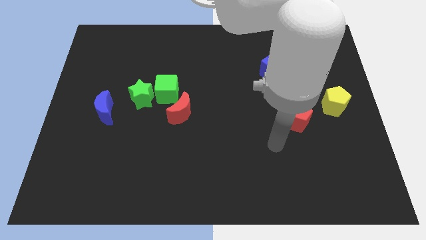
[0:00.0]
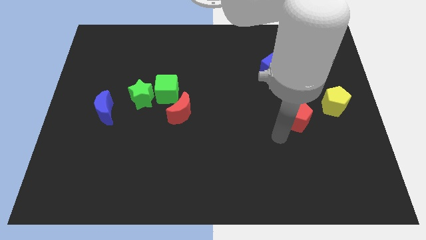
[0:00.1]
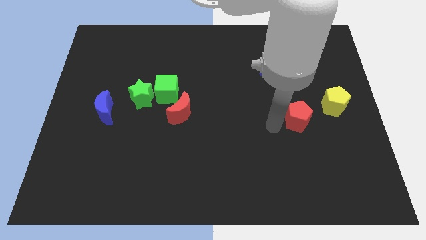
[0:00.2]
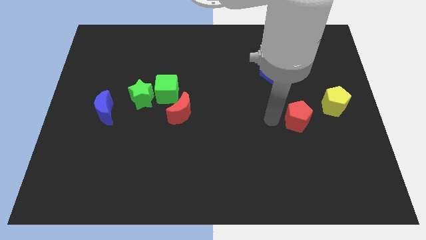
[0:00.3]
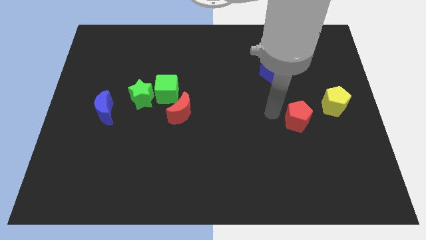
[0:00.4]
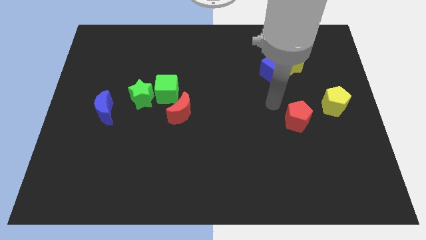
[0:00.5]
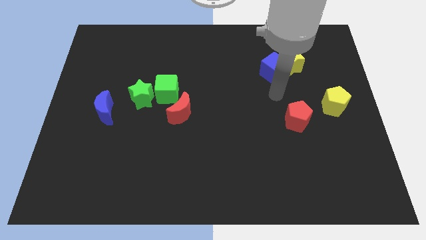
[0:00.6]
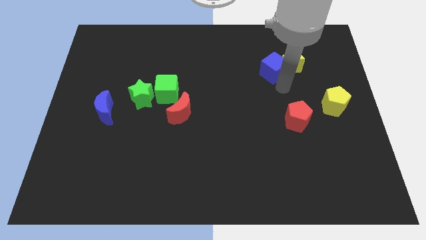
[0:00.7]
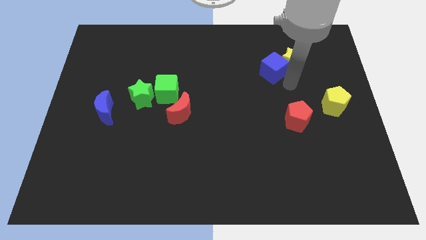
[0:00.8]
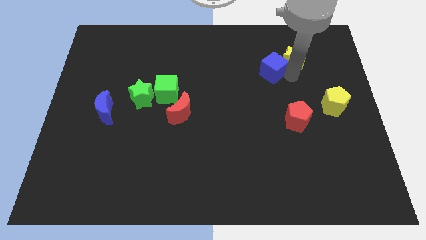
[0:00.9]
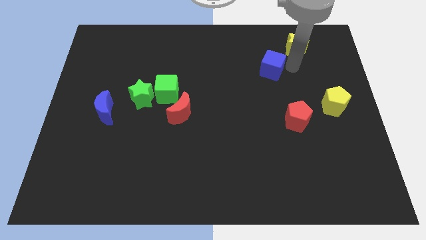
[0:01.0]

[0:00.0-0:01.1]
move the blue cube away from the yellow star

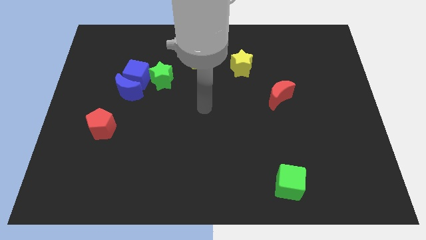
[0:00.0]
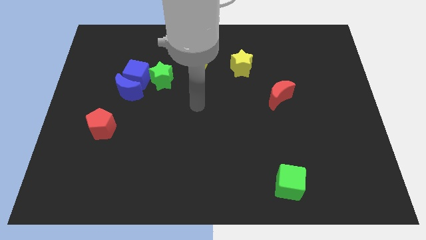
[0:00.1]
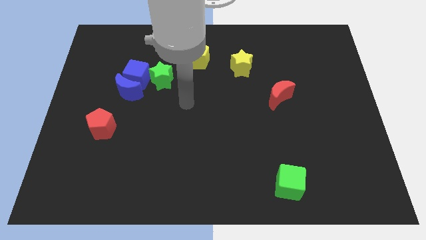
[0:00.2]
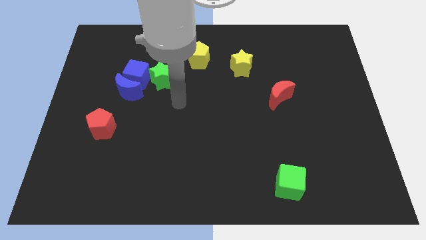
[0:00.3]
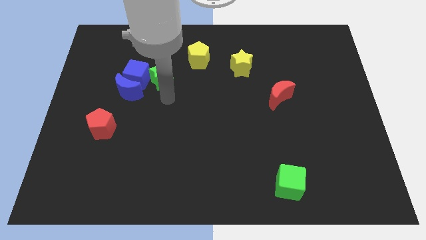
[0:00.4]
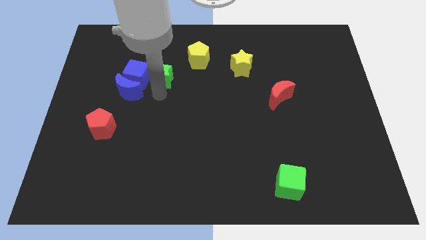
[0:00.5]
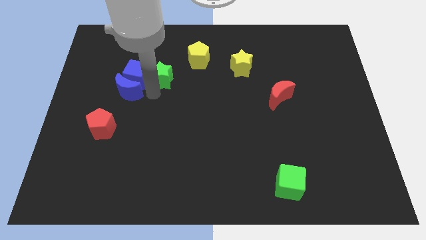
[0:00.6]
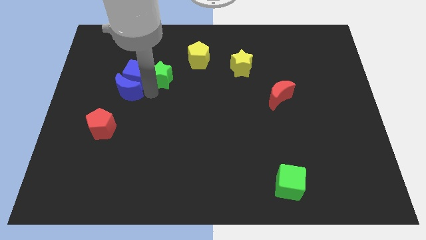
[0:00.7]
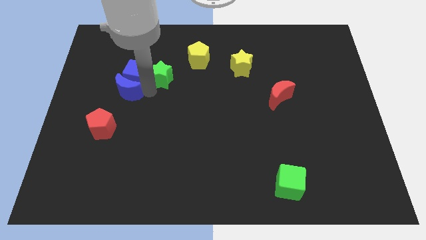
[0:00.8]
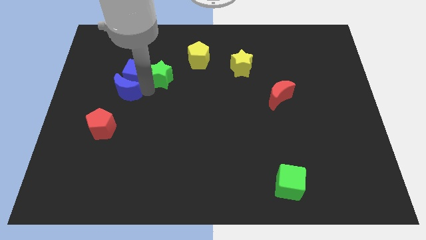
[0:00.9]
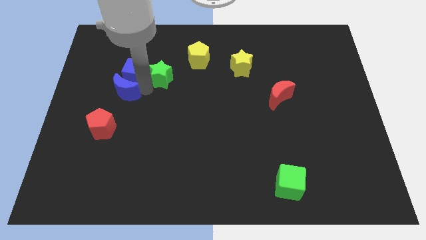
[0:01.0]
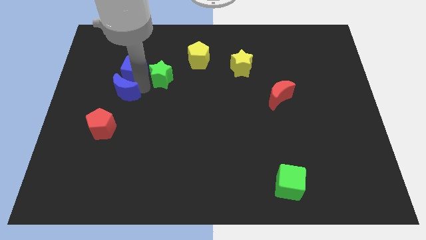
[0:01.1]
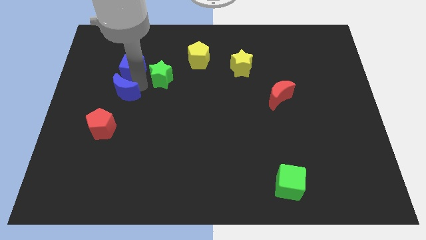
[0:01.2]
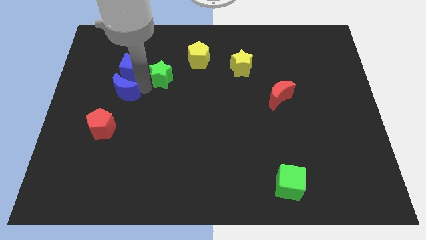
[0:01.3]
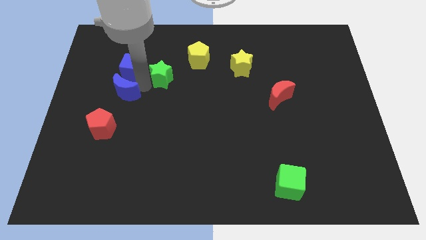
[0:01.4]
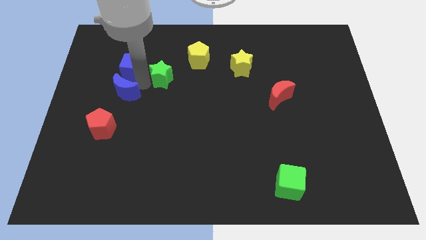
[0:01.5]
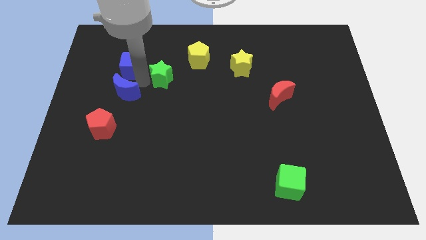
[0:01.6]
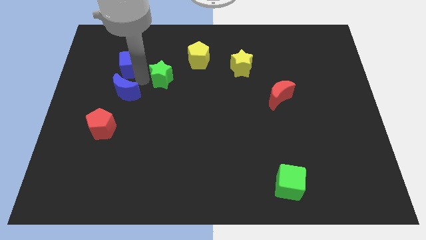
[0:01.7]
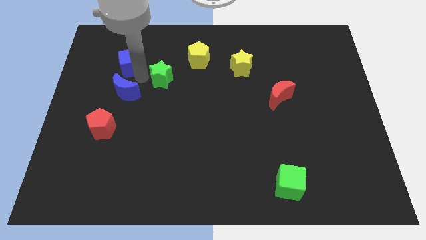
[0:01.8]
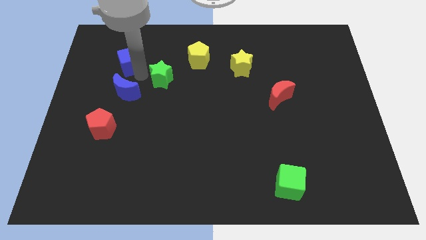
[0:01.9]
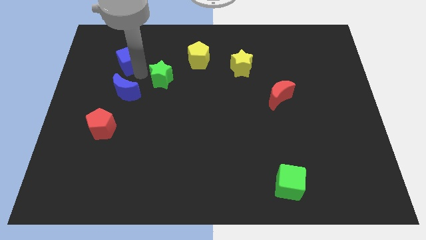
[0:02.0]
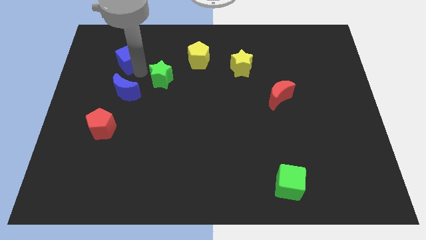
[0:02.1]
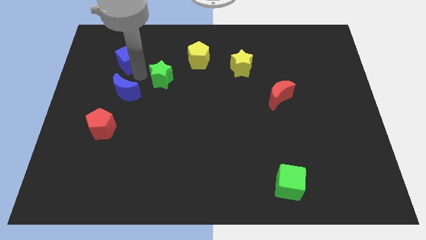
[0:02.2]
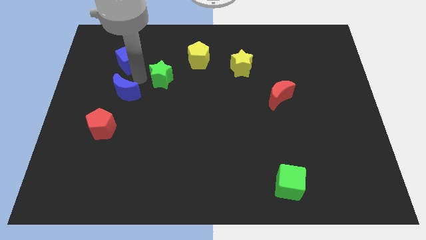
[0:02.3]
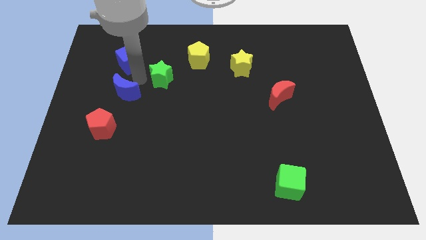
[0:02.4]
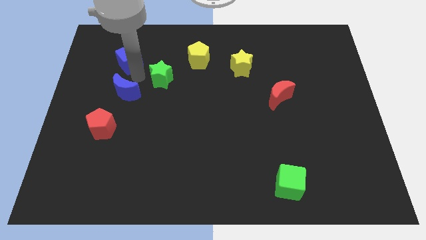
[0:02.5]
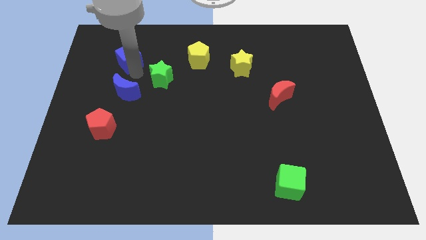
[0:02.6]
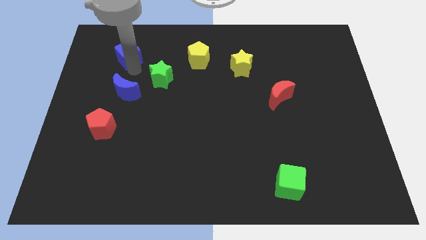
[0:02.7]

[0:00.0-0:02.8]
move the blue cube away from the blue moon and green star

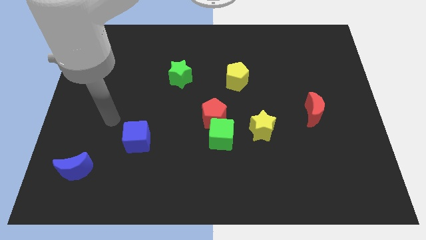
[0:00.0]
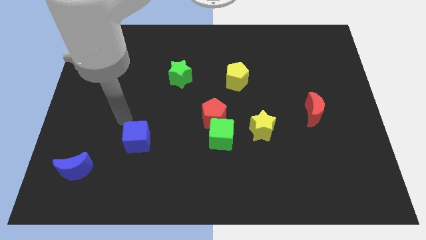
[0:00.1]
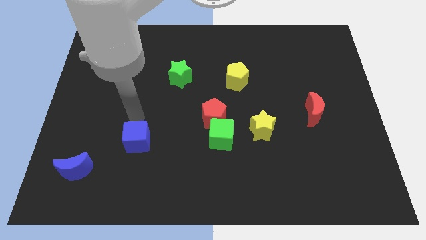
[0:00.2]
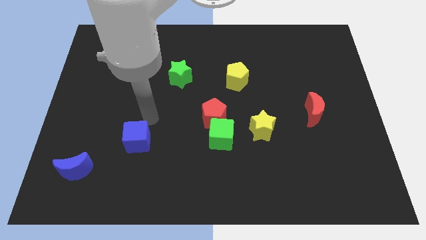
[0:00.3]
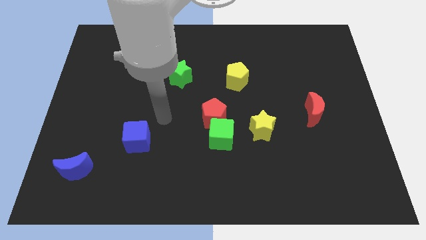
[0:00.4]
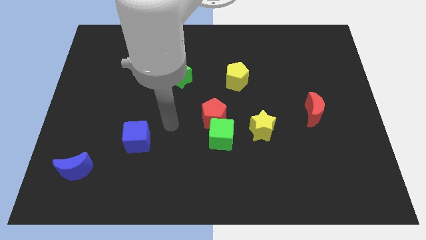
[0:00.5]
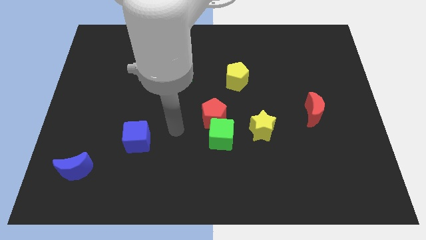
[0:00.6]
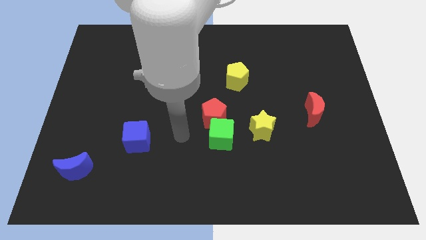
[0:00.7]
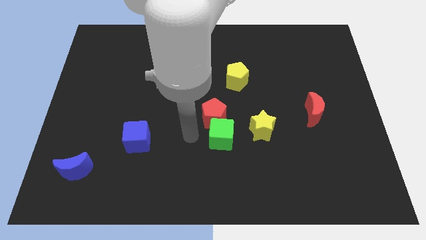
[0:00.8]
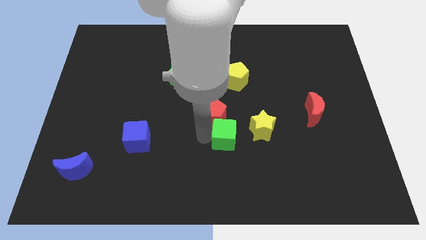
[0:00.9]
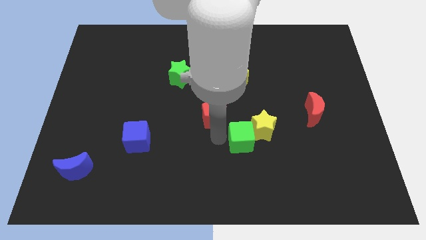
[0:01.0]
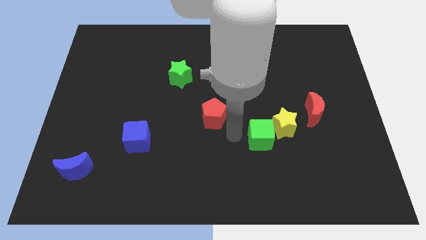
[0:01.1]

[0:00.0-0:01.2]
pull the red pentagon apart from the green cube

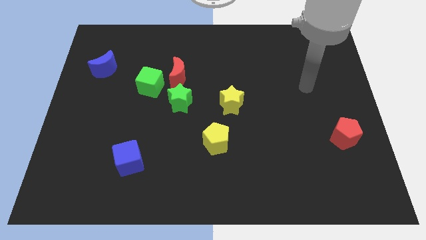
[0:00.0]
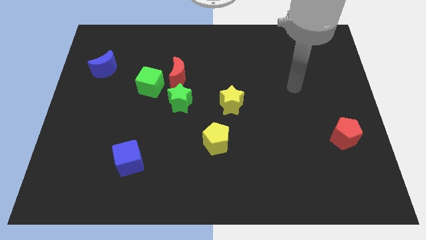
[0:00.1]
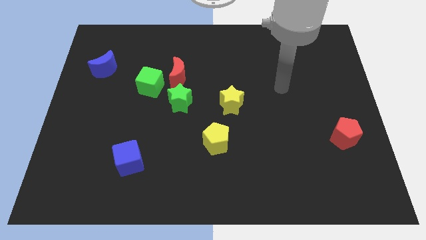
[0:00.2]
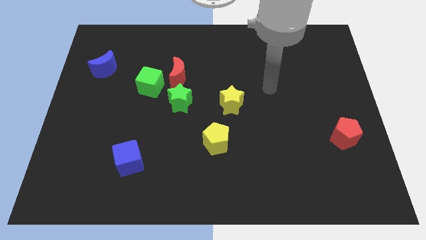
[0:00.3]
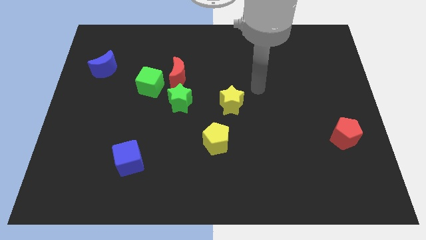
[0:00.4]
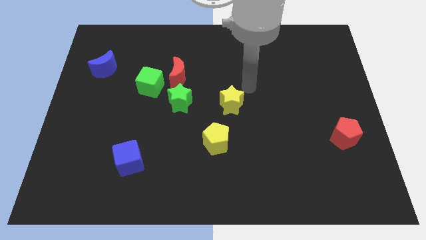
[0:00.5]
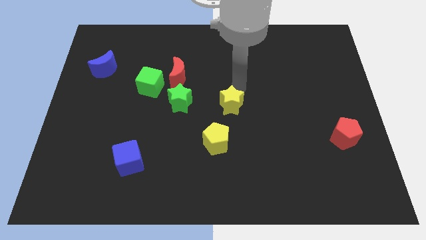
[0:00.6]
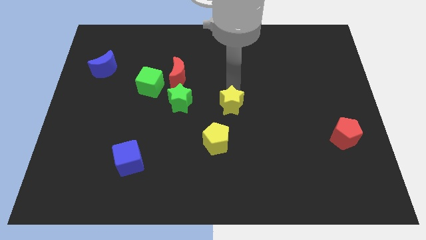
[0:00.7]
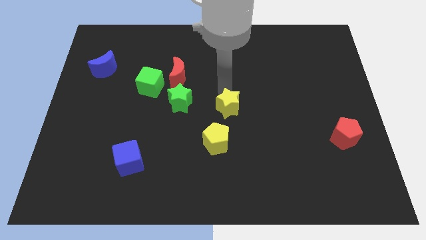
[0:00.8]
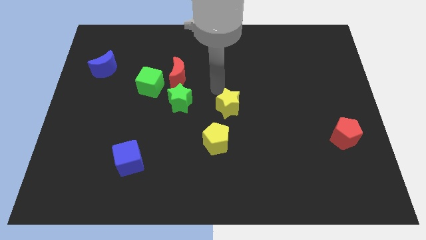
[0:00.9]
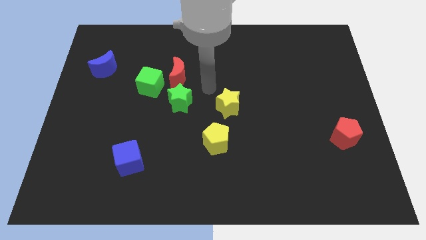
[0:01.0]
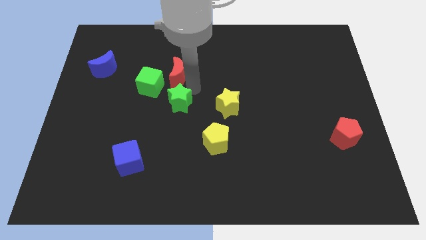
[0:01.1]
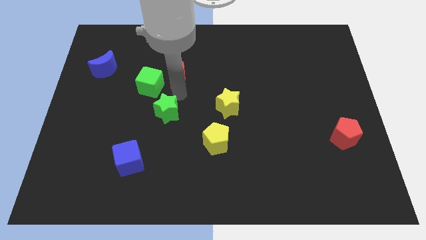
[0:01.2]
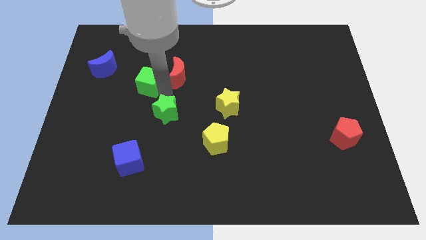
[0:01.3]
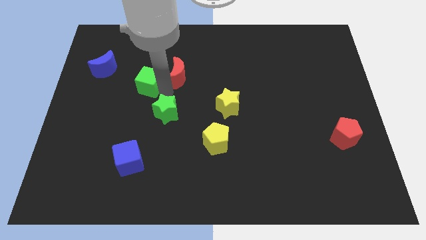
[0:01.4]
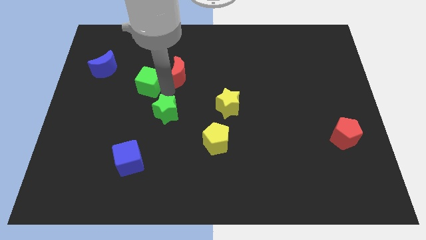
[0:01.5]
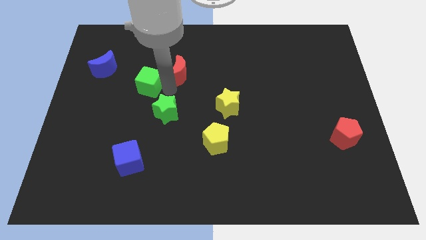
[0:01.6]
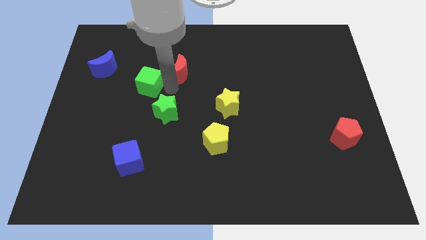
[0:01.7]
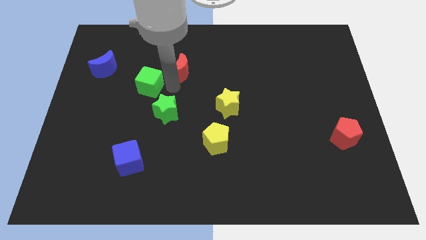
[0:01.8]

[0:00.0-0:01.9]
separate the red moon from the green cube and green star

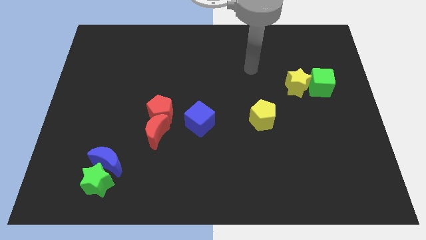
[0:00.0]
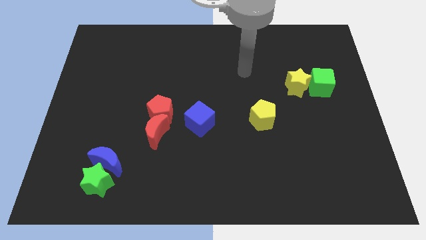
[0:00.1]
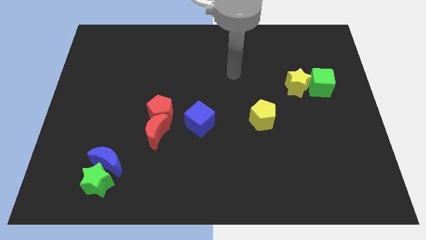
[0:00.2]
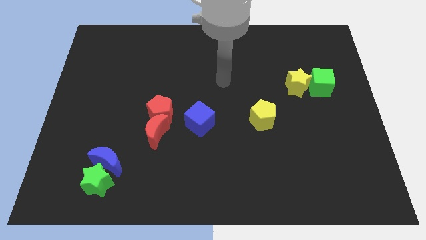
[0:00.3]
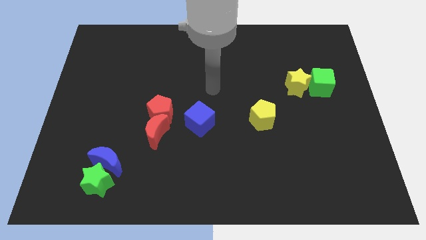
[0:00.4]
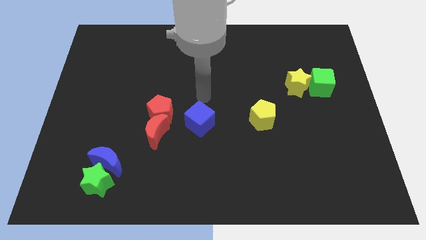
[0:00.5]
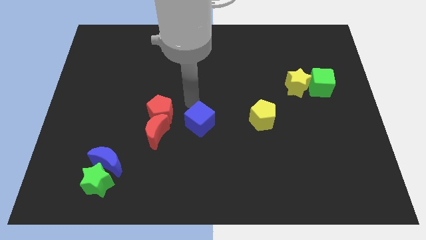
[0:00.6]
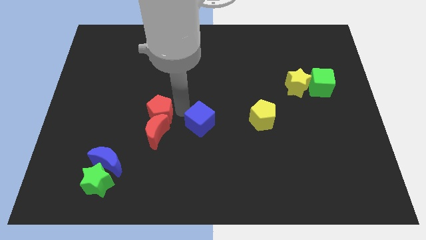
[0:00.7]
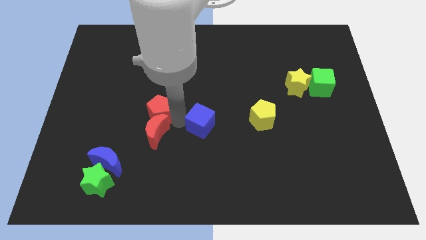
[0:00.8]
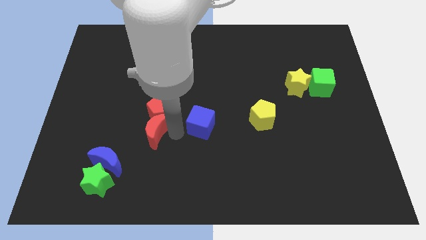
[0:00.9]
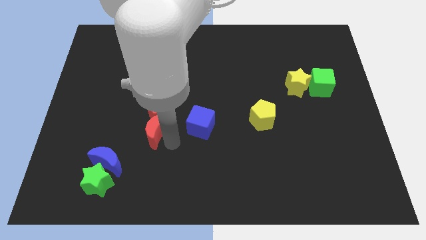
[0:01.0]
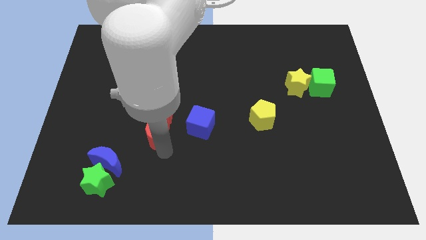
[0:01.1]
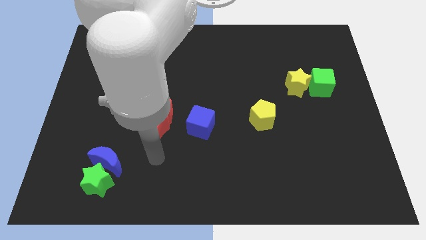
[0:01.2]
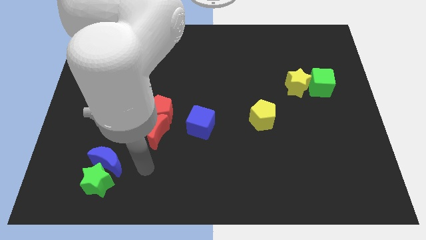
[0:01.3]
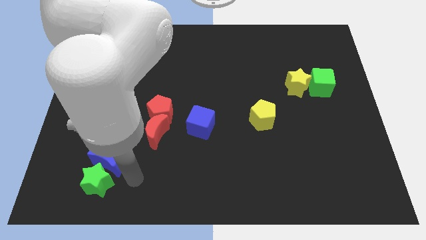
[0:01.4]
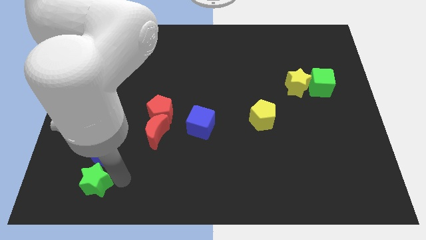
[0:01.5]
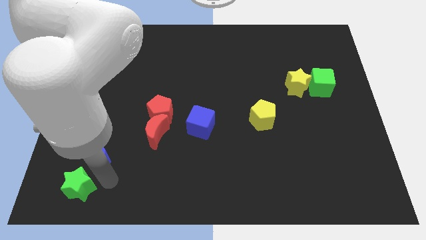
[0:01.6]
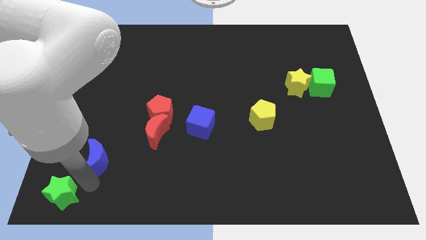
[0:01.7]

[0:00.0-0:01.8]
separate the blue moon from the green star

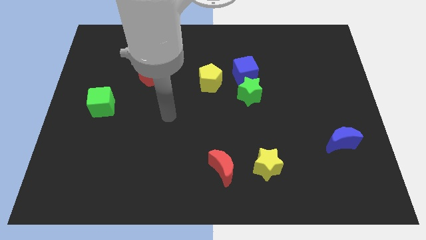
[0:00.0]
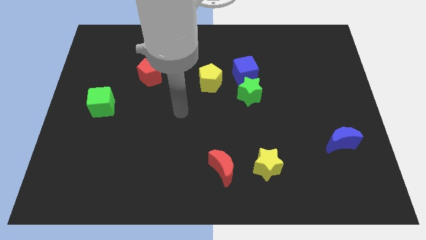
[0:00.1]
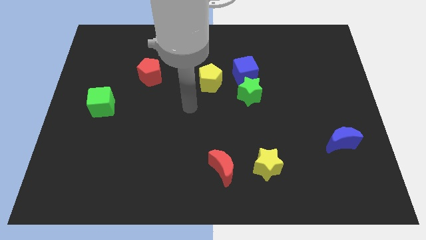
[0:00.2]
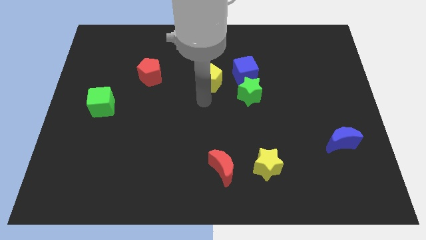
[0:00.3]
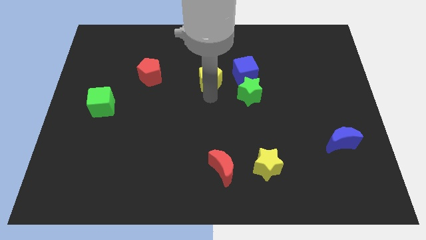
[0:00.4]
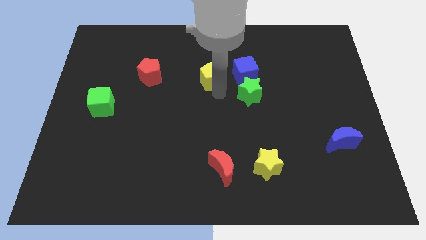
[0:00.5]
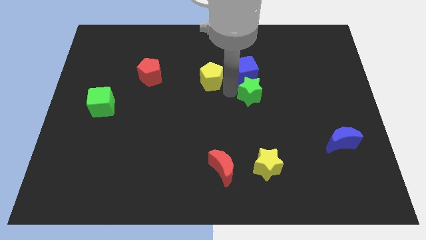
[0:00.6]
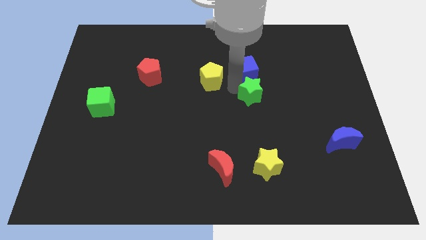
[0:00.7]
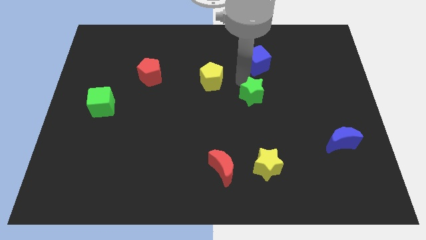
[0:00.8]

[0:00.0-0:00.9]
move the green star away from the blue cube
